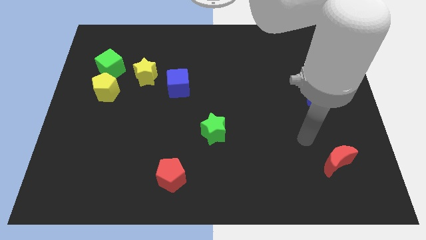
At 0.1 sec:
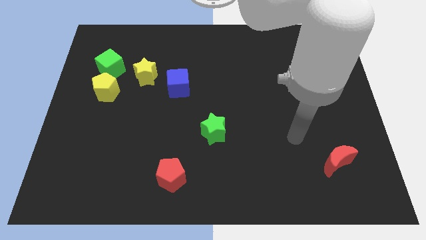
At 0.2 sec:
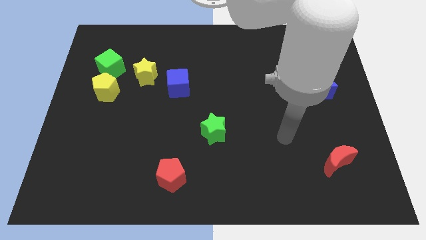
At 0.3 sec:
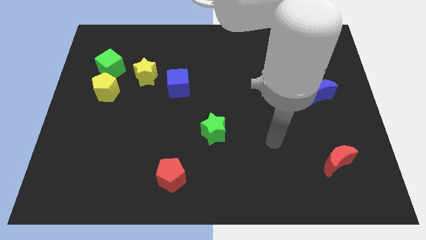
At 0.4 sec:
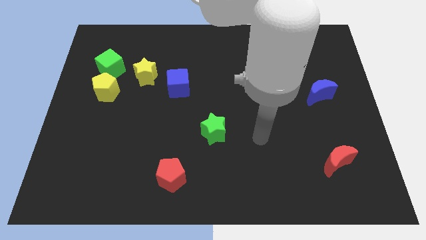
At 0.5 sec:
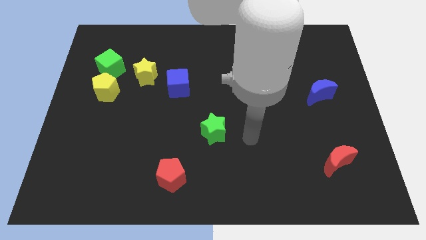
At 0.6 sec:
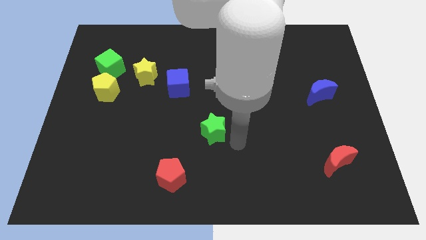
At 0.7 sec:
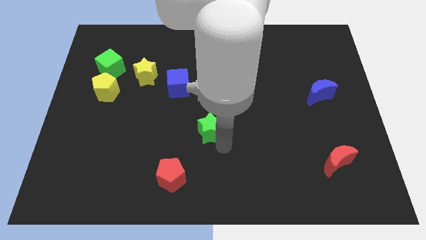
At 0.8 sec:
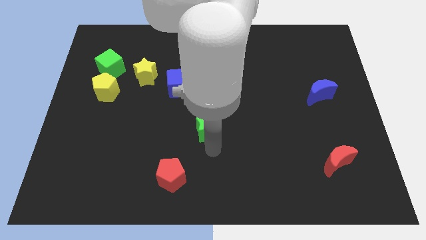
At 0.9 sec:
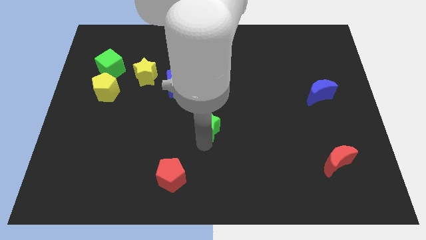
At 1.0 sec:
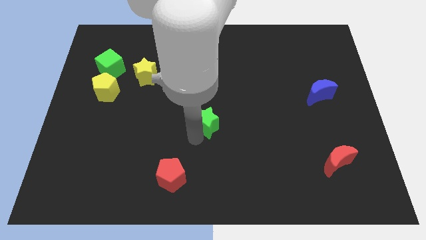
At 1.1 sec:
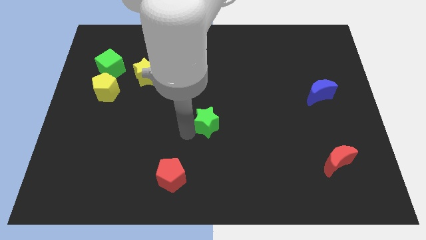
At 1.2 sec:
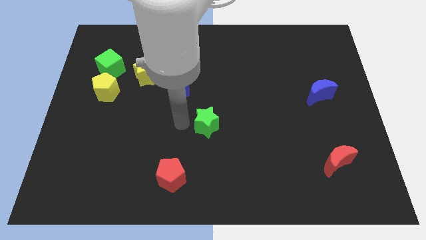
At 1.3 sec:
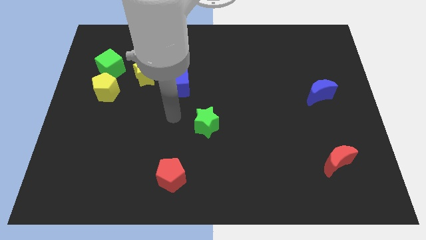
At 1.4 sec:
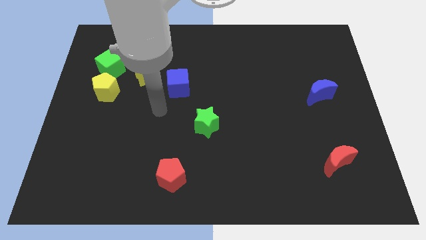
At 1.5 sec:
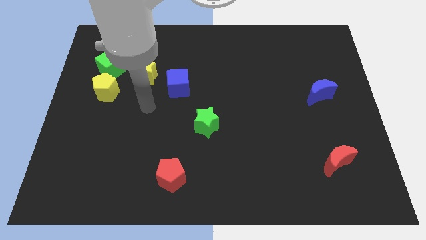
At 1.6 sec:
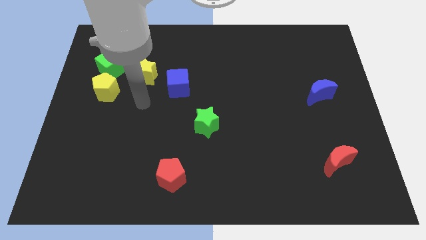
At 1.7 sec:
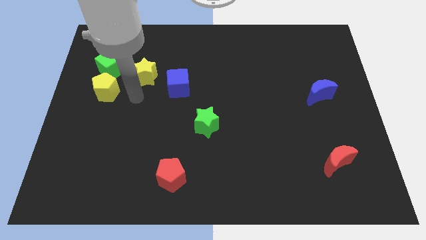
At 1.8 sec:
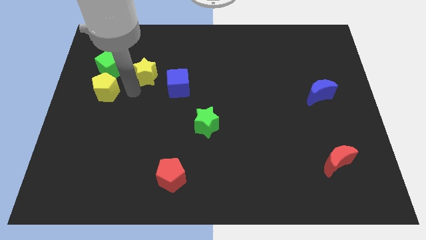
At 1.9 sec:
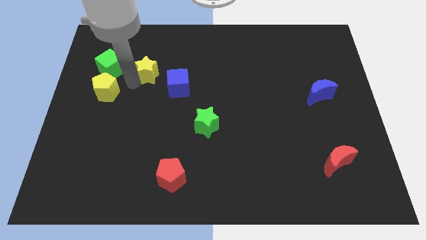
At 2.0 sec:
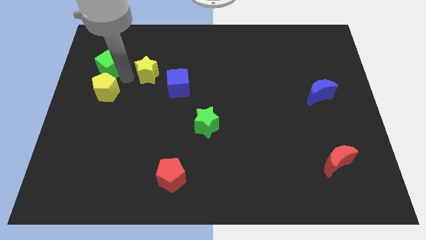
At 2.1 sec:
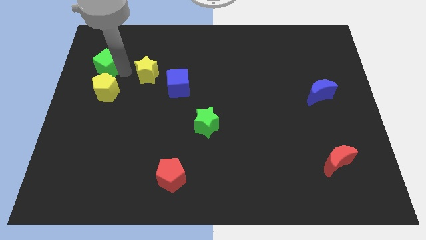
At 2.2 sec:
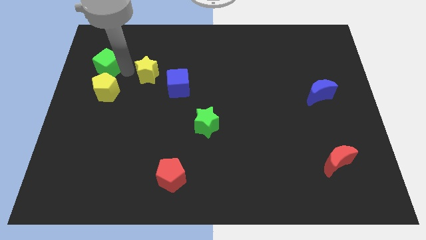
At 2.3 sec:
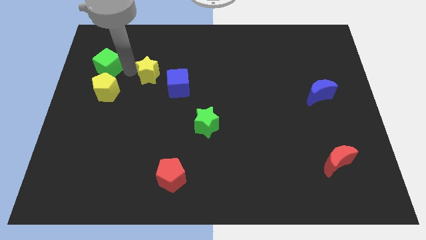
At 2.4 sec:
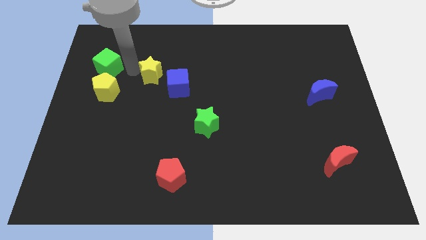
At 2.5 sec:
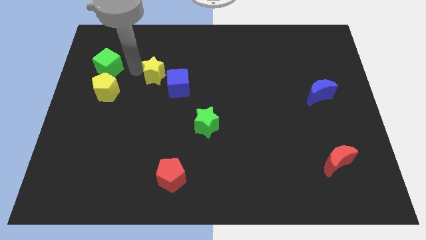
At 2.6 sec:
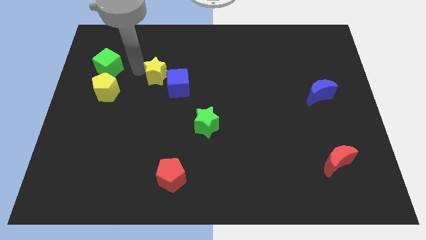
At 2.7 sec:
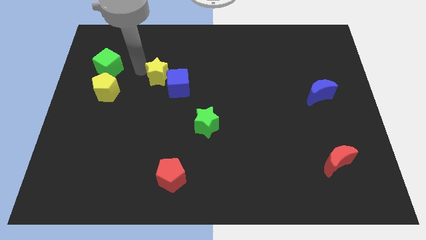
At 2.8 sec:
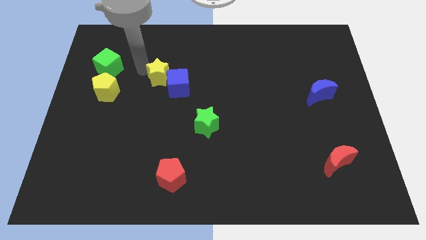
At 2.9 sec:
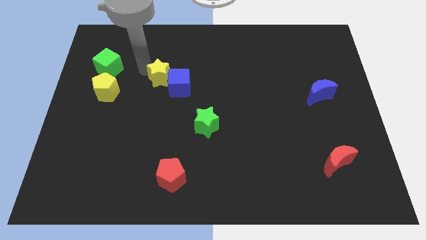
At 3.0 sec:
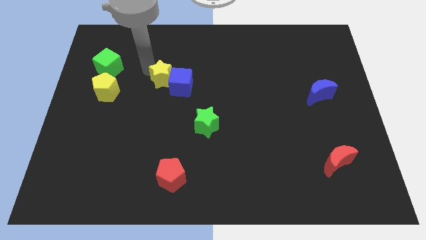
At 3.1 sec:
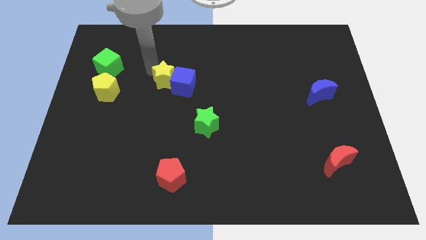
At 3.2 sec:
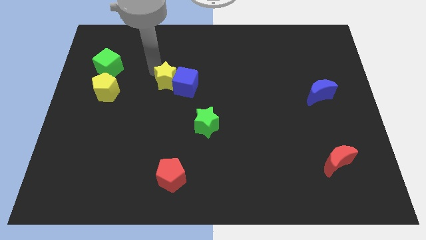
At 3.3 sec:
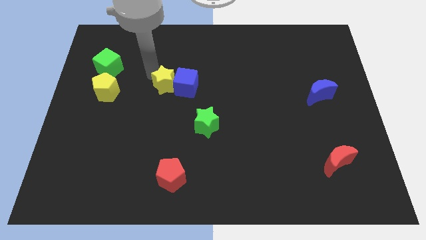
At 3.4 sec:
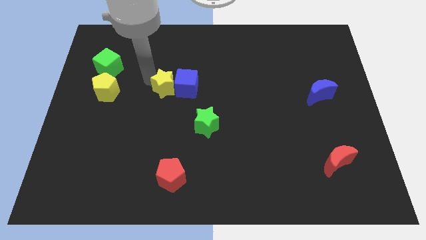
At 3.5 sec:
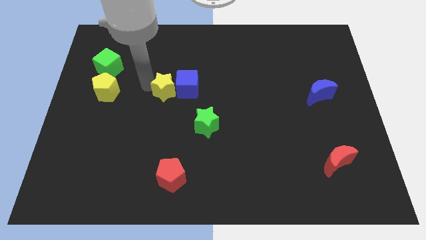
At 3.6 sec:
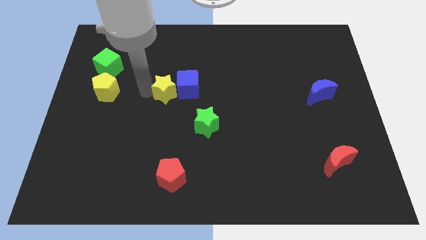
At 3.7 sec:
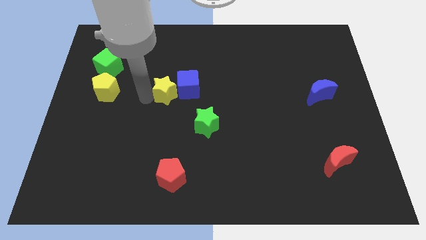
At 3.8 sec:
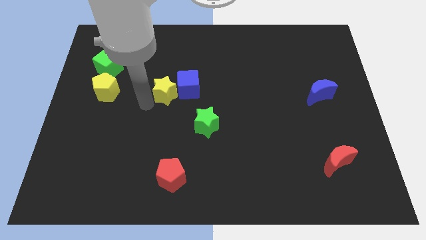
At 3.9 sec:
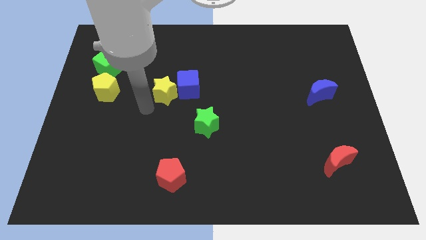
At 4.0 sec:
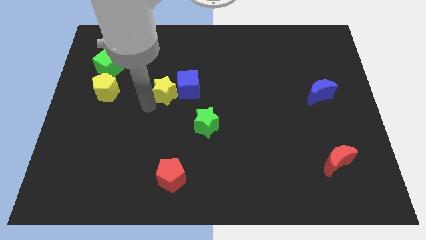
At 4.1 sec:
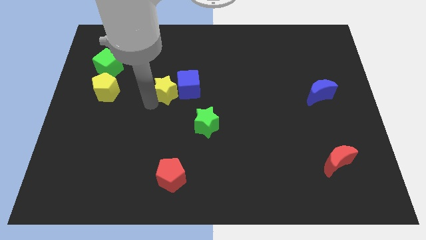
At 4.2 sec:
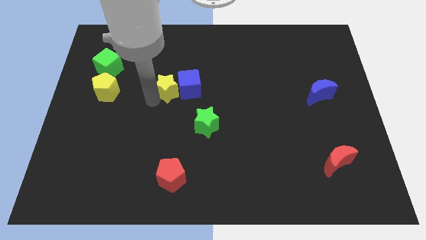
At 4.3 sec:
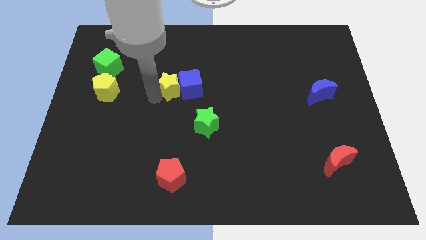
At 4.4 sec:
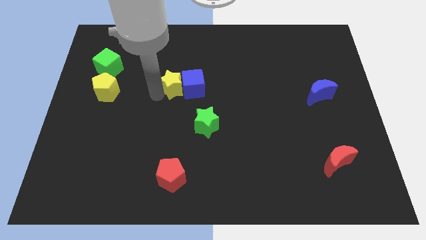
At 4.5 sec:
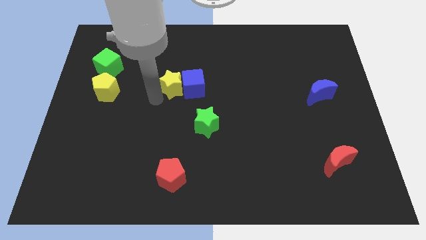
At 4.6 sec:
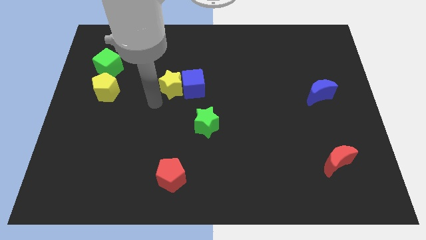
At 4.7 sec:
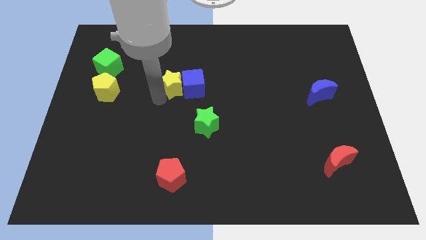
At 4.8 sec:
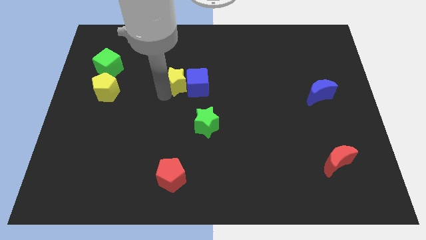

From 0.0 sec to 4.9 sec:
move the yellow star right a little bit

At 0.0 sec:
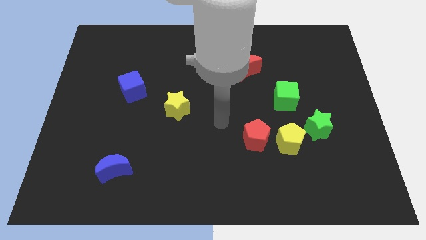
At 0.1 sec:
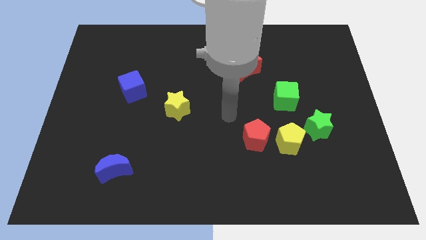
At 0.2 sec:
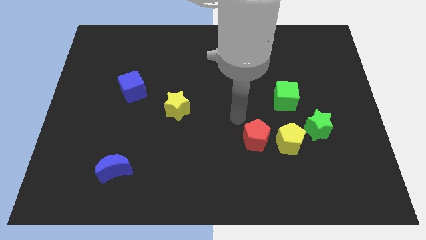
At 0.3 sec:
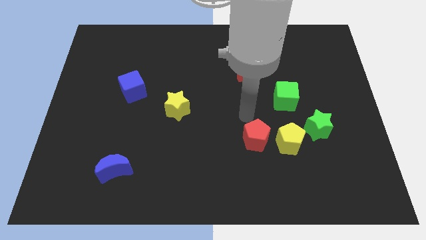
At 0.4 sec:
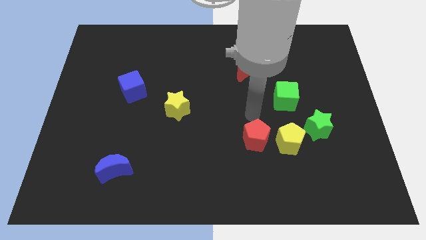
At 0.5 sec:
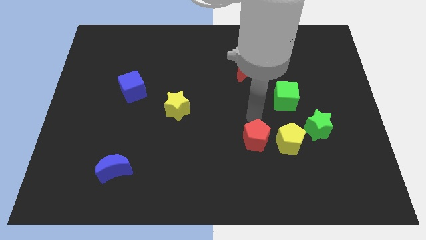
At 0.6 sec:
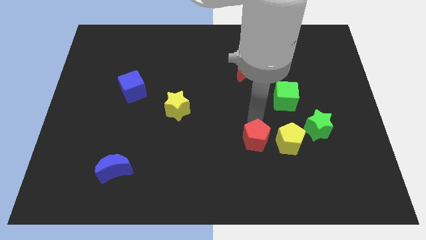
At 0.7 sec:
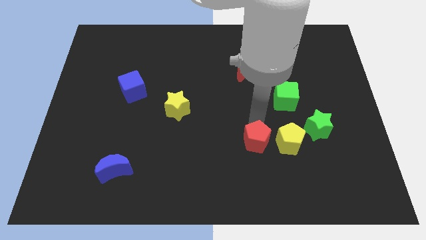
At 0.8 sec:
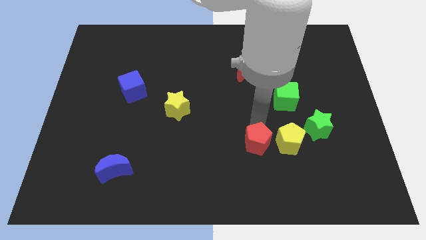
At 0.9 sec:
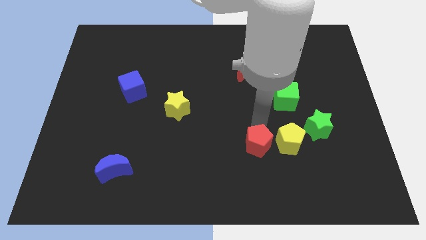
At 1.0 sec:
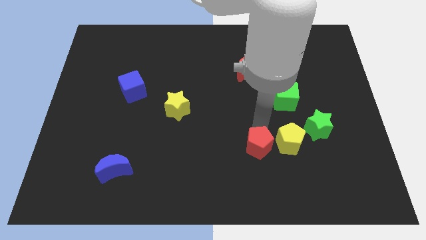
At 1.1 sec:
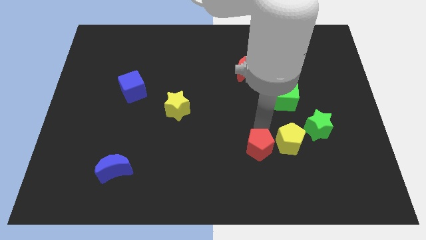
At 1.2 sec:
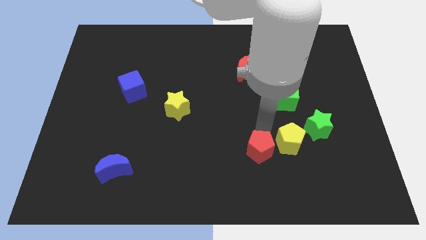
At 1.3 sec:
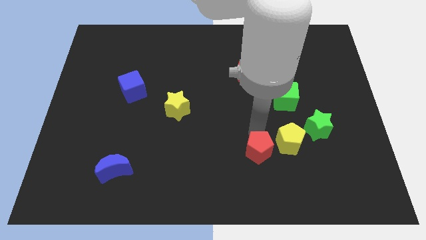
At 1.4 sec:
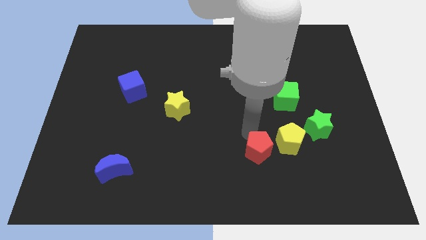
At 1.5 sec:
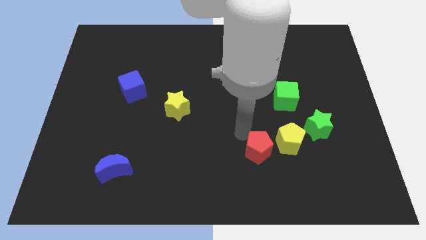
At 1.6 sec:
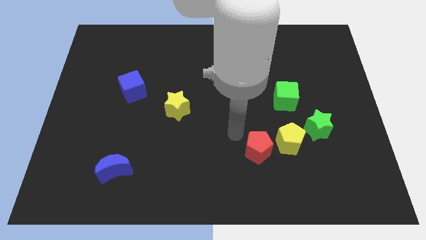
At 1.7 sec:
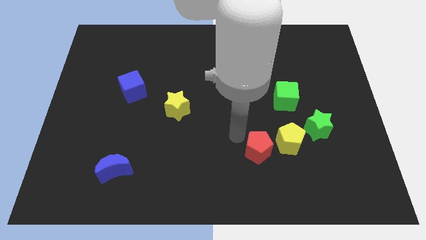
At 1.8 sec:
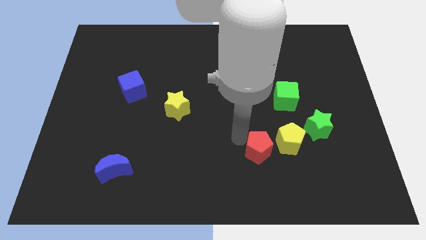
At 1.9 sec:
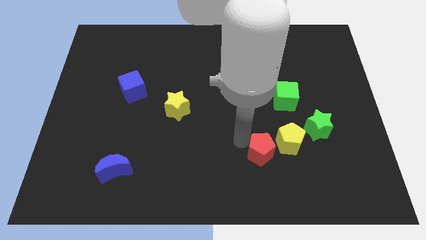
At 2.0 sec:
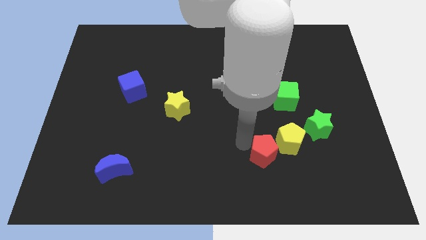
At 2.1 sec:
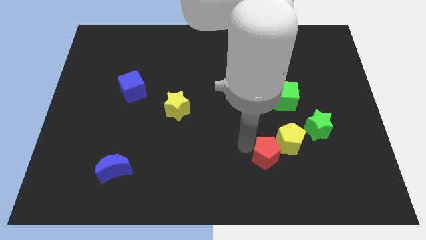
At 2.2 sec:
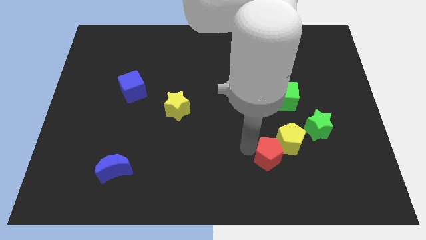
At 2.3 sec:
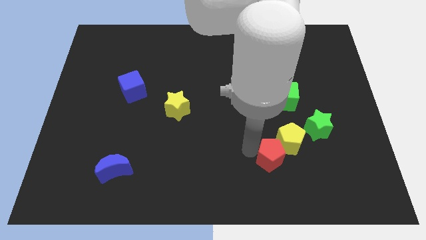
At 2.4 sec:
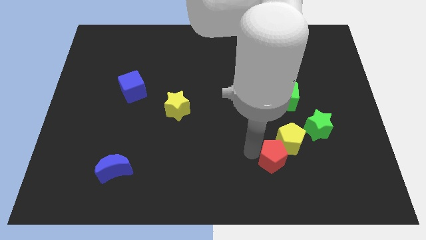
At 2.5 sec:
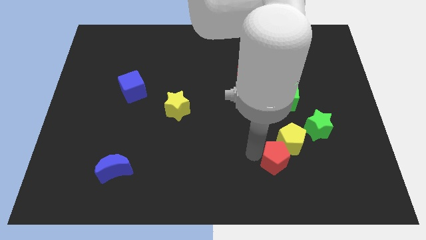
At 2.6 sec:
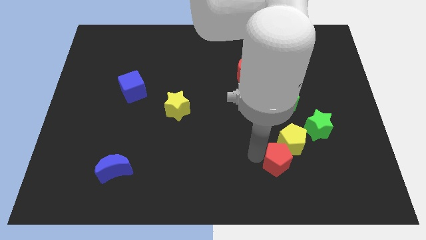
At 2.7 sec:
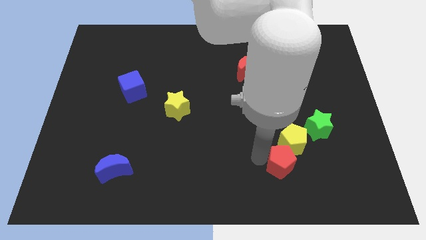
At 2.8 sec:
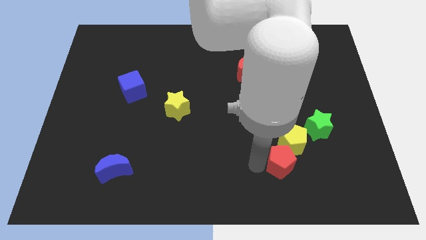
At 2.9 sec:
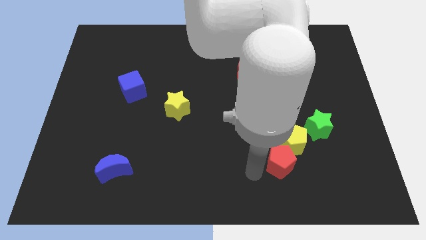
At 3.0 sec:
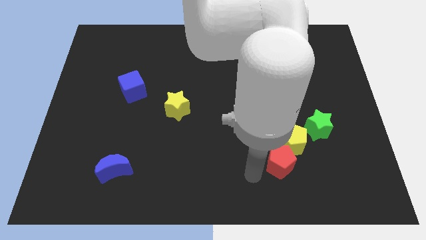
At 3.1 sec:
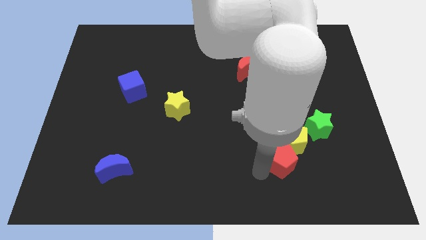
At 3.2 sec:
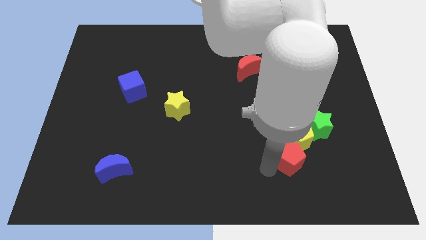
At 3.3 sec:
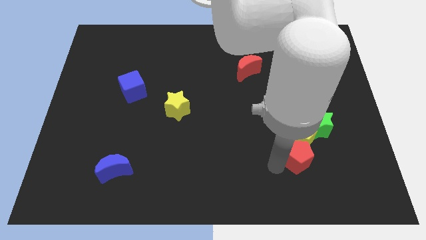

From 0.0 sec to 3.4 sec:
slightly move the red pentagon to the right
